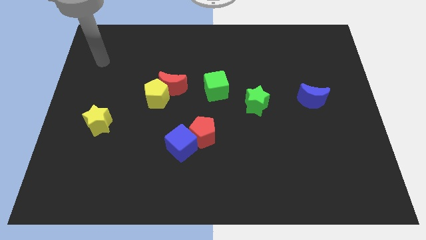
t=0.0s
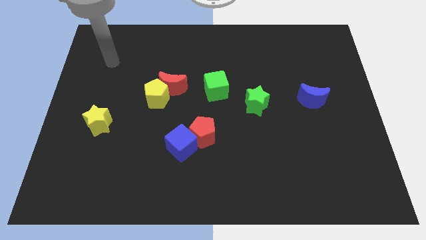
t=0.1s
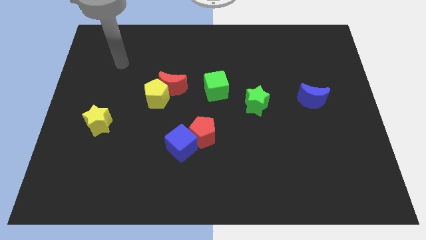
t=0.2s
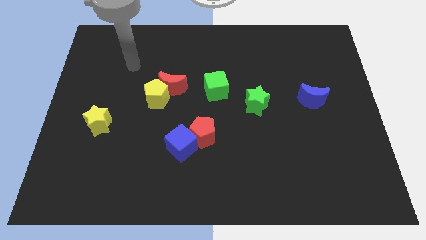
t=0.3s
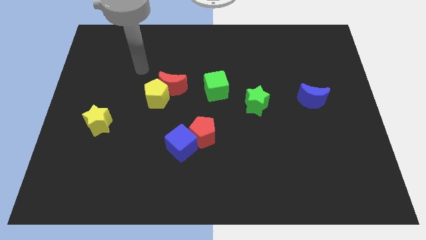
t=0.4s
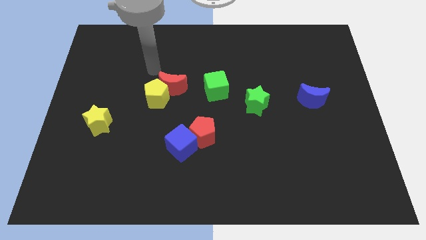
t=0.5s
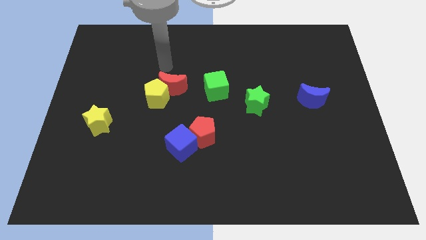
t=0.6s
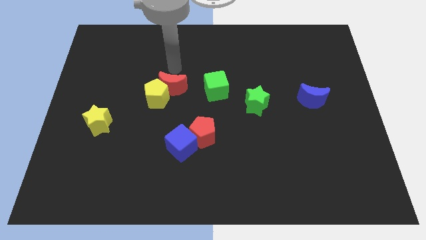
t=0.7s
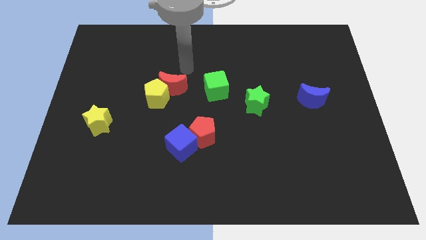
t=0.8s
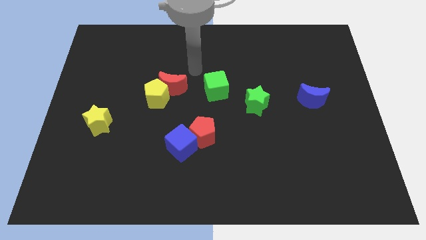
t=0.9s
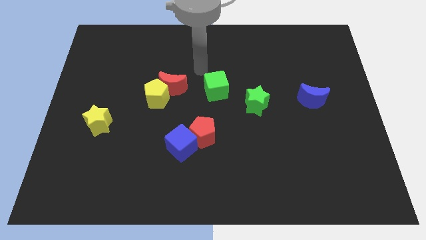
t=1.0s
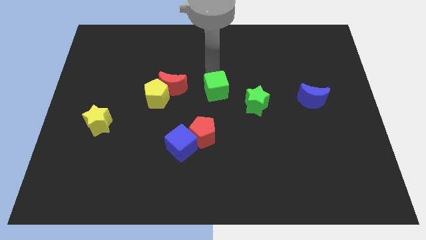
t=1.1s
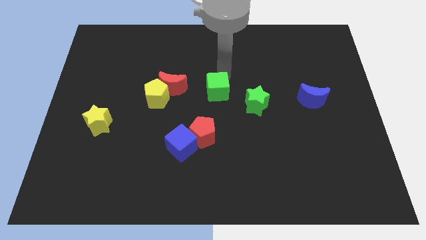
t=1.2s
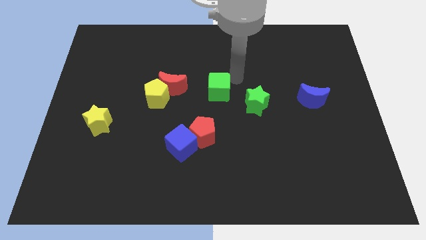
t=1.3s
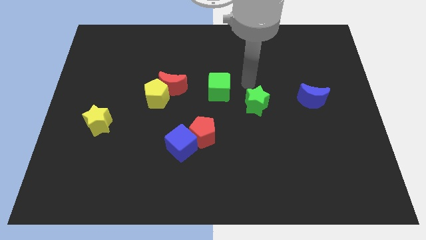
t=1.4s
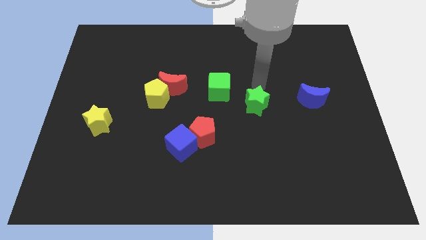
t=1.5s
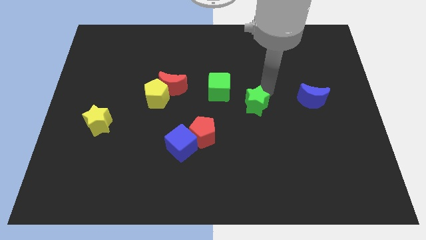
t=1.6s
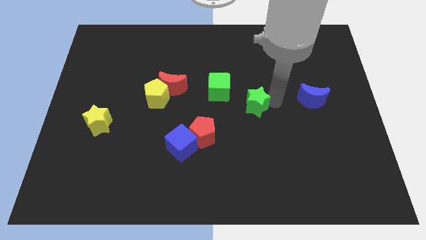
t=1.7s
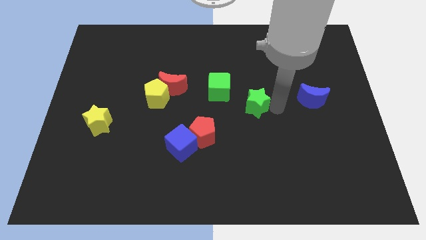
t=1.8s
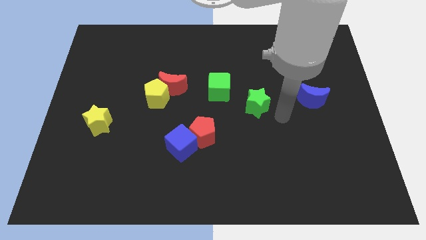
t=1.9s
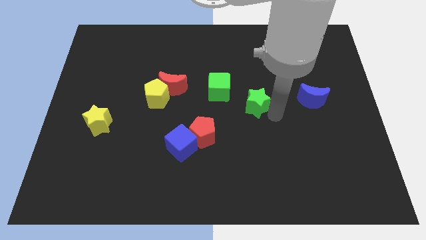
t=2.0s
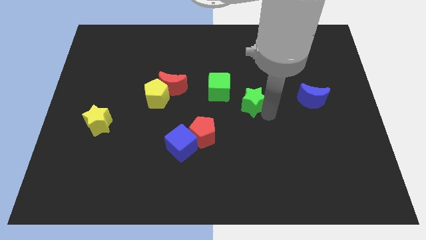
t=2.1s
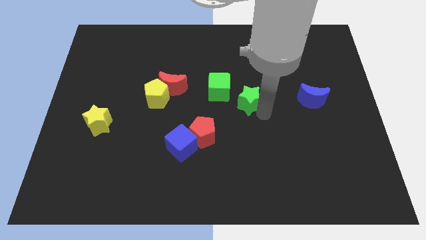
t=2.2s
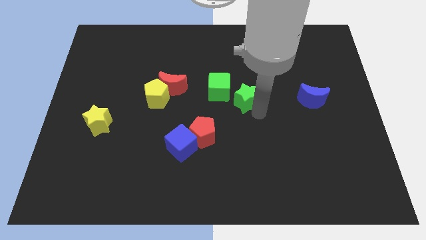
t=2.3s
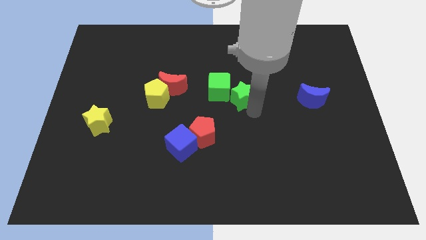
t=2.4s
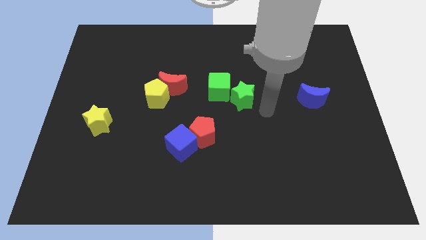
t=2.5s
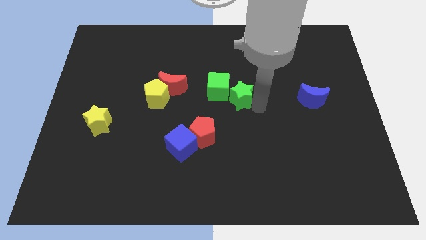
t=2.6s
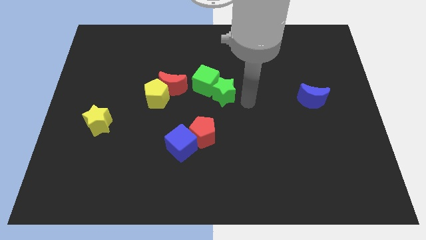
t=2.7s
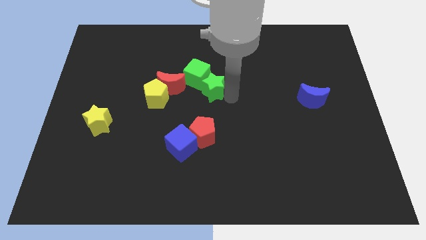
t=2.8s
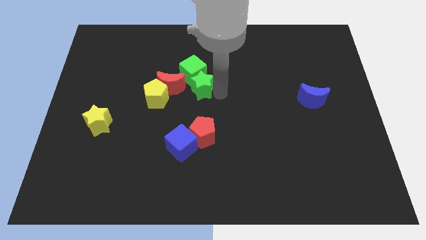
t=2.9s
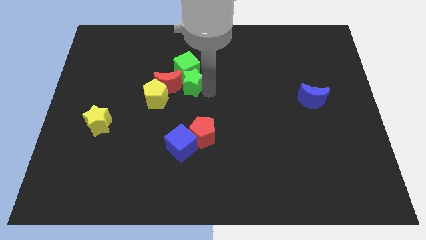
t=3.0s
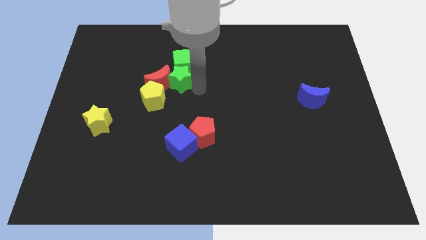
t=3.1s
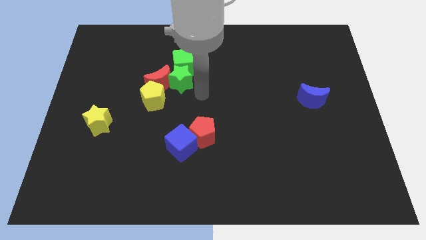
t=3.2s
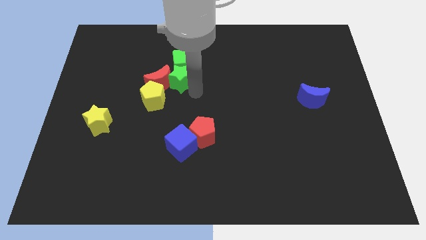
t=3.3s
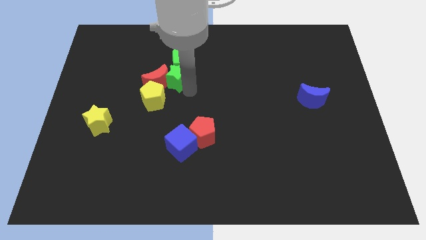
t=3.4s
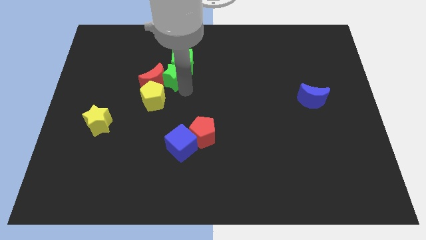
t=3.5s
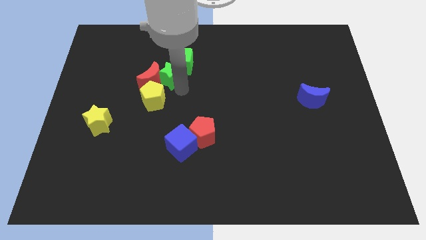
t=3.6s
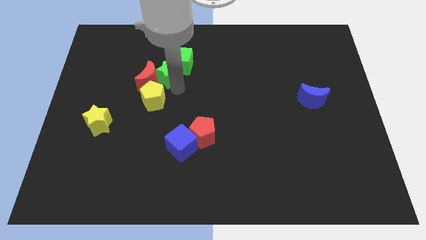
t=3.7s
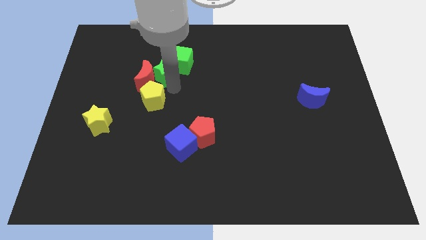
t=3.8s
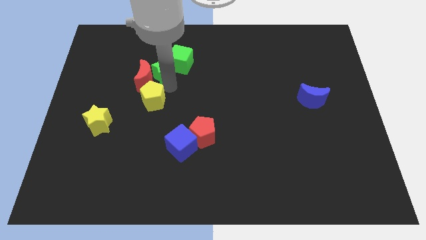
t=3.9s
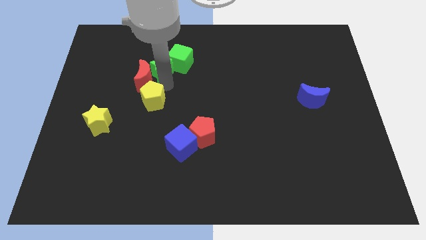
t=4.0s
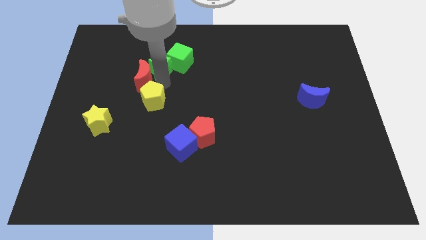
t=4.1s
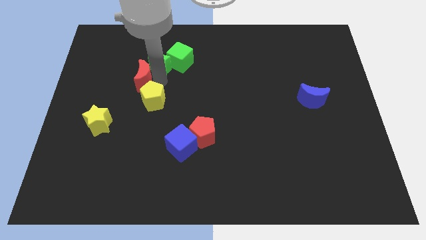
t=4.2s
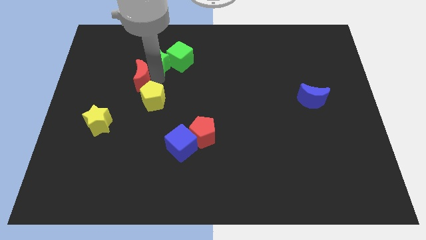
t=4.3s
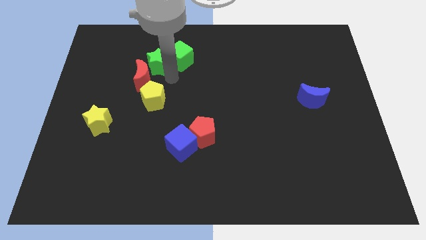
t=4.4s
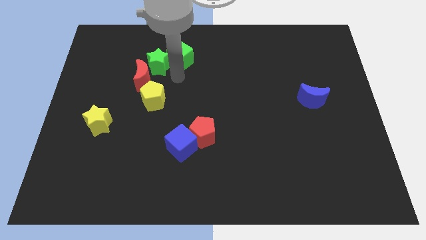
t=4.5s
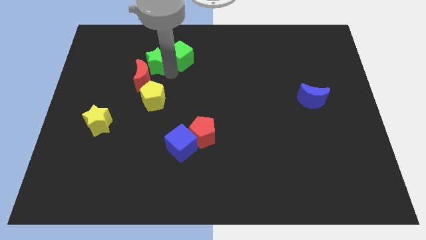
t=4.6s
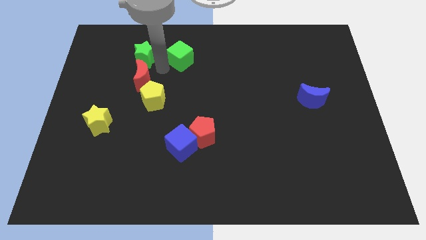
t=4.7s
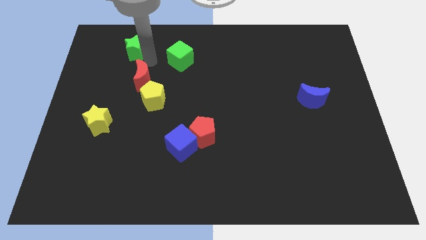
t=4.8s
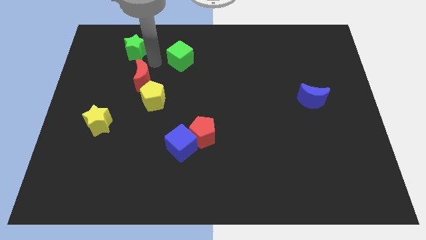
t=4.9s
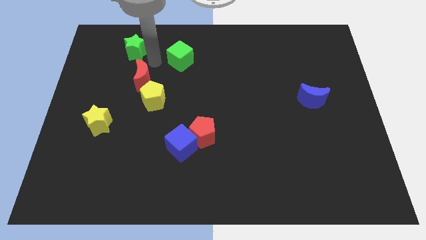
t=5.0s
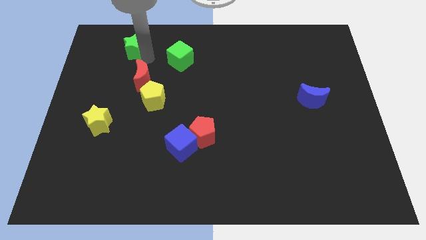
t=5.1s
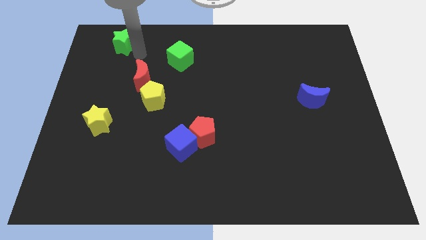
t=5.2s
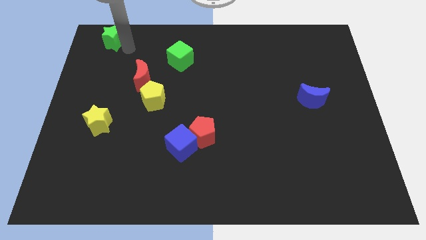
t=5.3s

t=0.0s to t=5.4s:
move the green star to the top left of the board

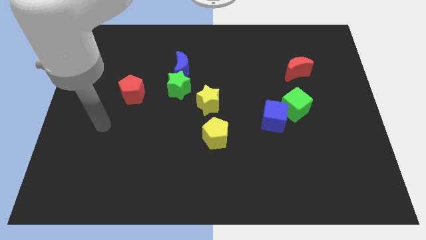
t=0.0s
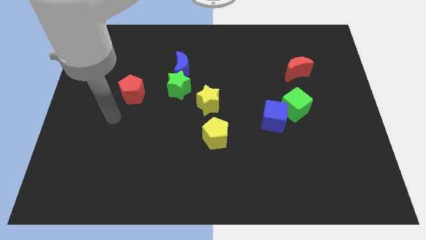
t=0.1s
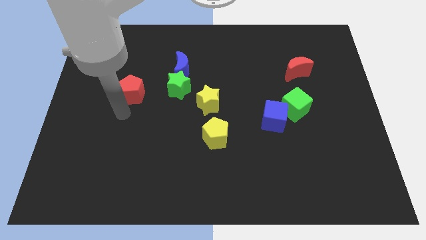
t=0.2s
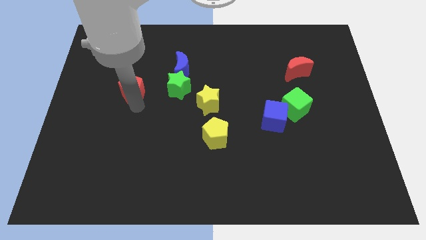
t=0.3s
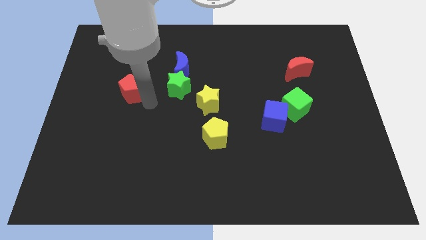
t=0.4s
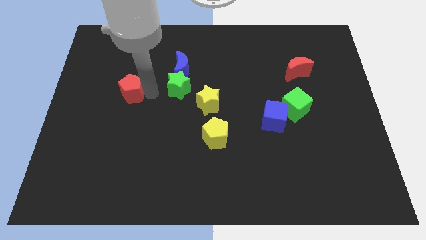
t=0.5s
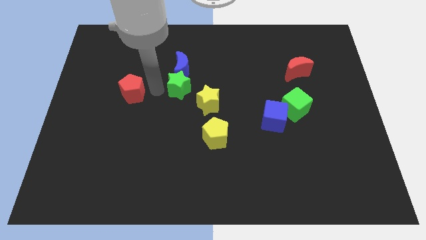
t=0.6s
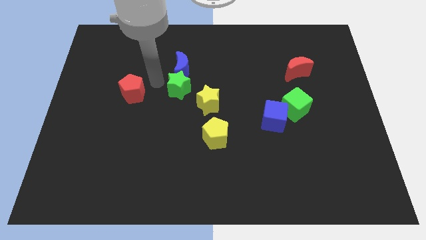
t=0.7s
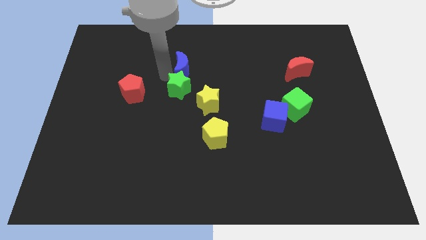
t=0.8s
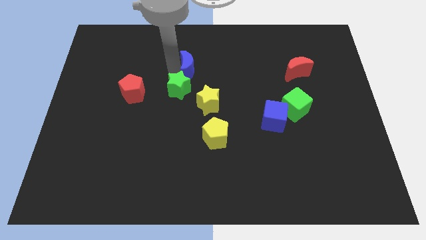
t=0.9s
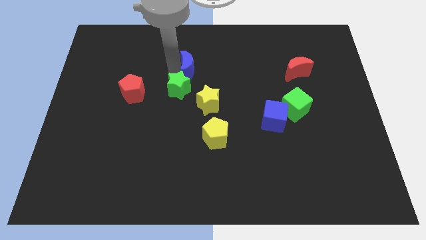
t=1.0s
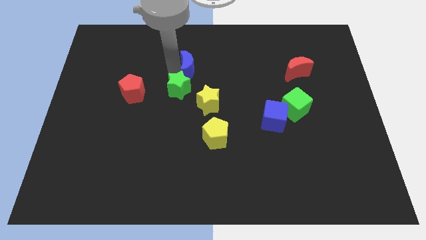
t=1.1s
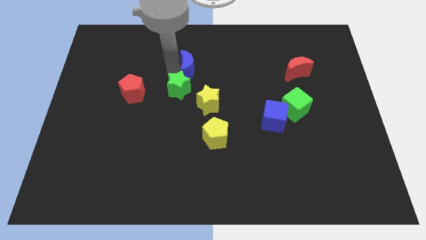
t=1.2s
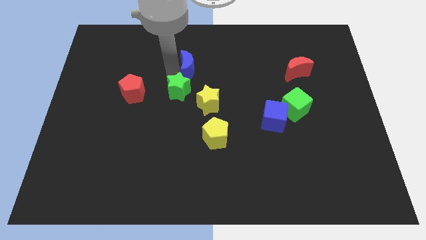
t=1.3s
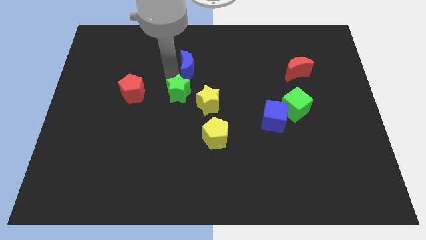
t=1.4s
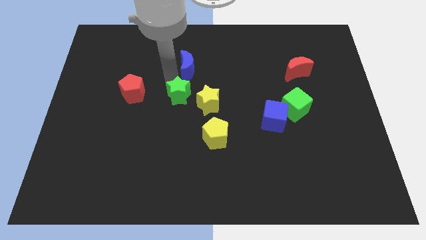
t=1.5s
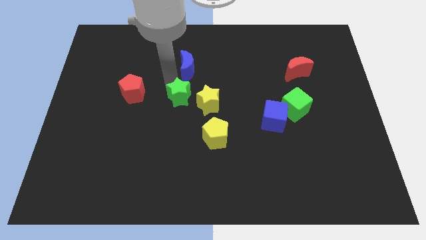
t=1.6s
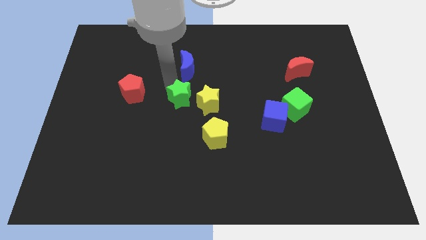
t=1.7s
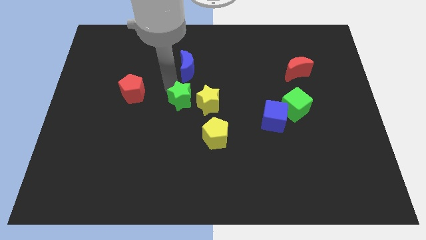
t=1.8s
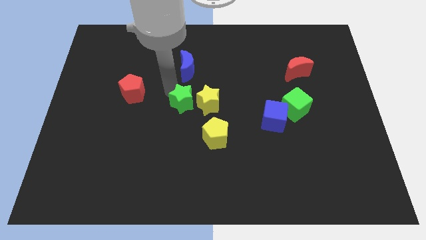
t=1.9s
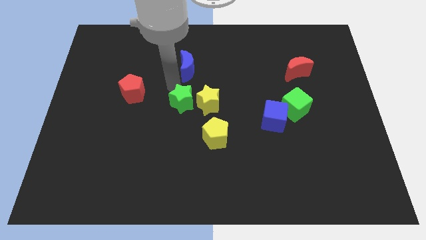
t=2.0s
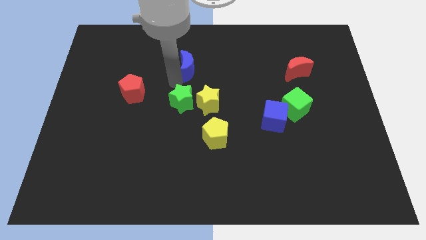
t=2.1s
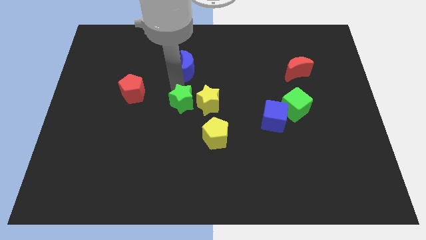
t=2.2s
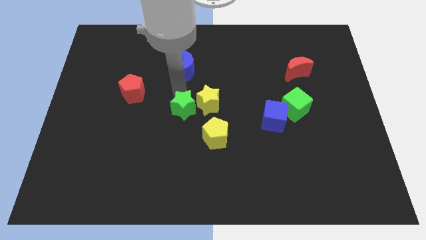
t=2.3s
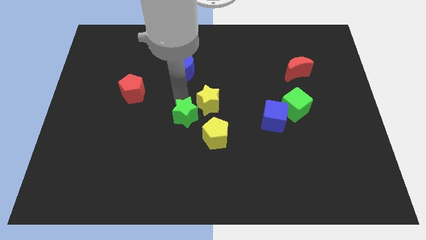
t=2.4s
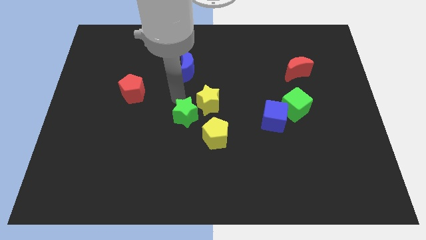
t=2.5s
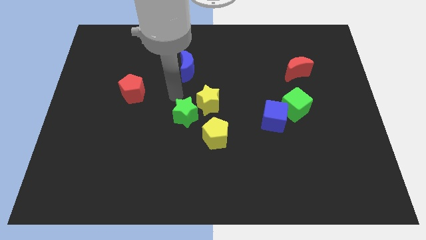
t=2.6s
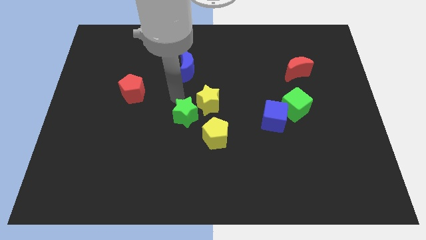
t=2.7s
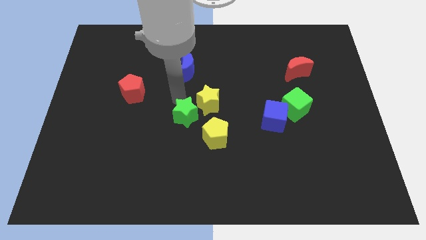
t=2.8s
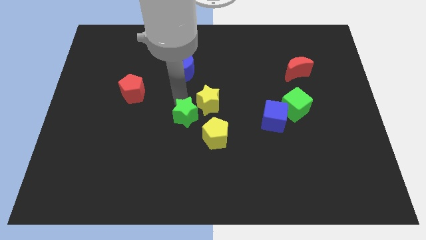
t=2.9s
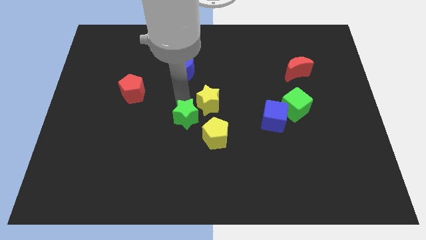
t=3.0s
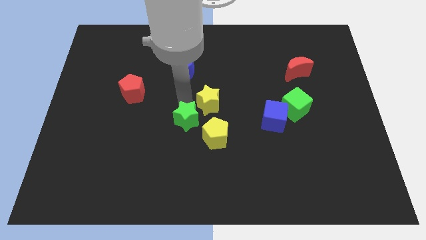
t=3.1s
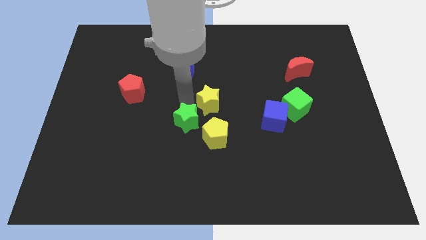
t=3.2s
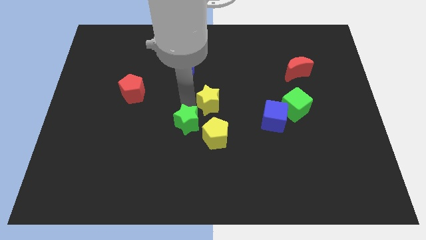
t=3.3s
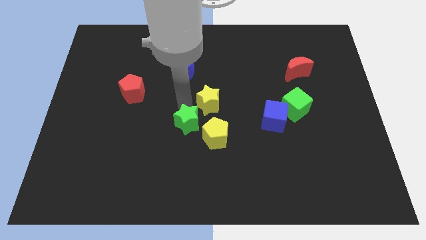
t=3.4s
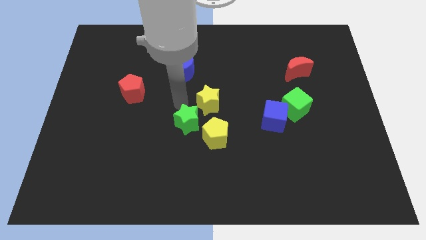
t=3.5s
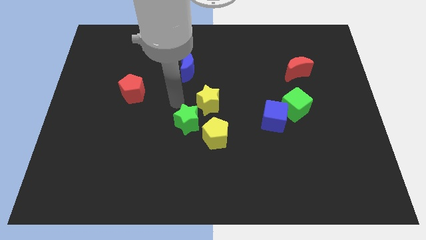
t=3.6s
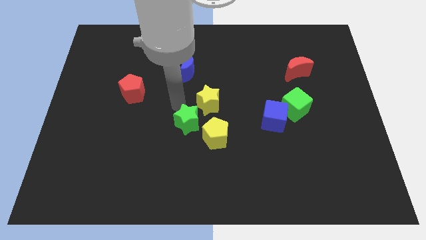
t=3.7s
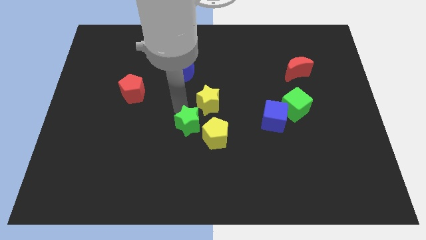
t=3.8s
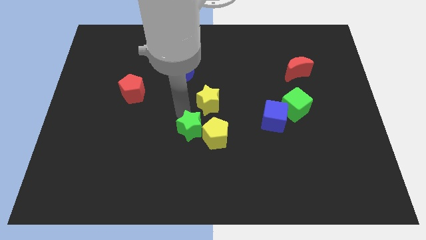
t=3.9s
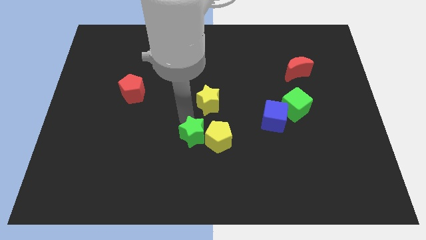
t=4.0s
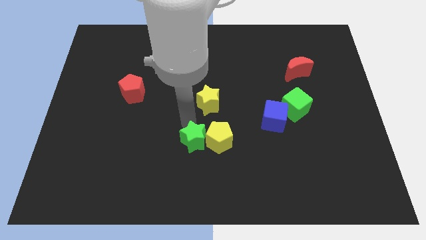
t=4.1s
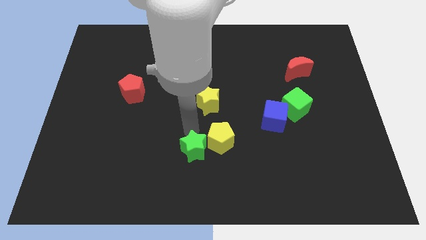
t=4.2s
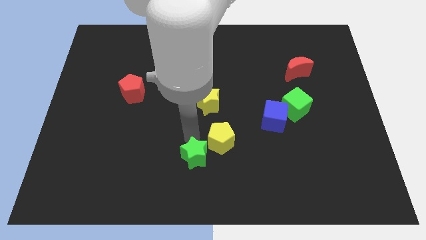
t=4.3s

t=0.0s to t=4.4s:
slide the green star to the bottom
